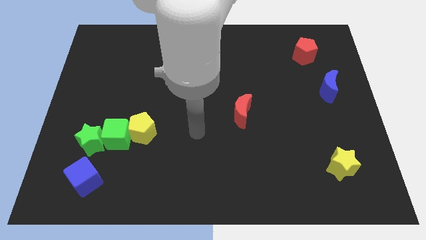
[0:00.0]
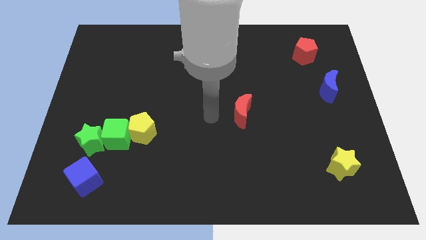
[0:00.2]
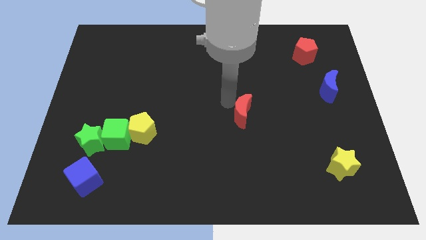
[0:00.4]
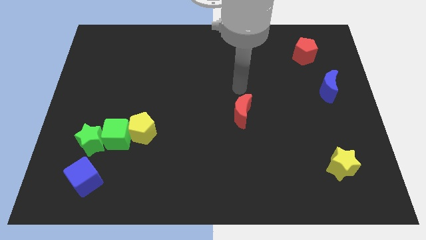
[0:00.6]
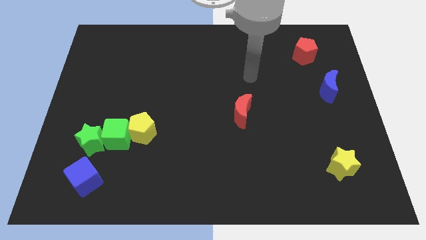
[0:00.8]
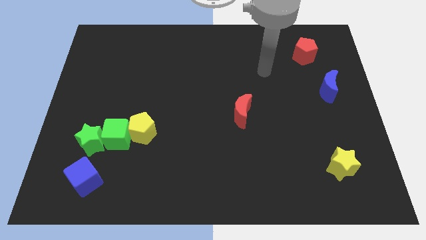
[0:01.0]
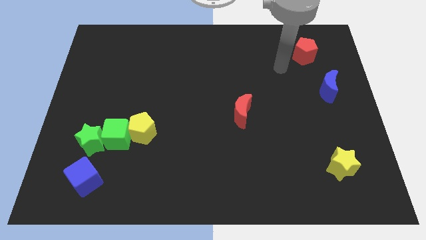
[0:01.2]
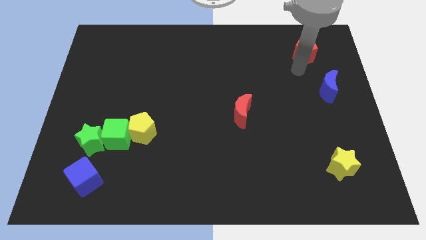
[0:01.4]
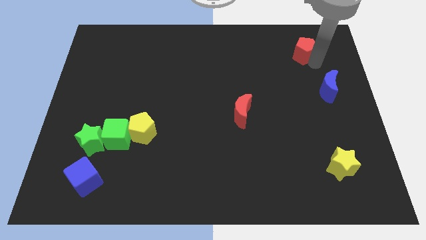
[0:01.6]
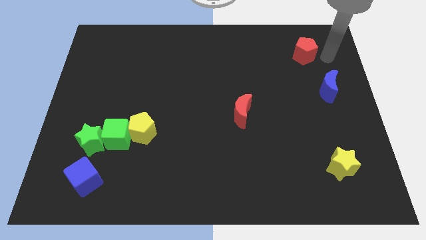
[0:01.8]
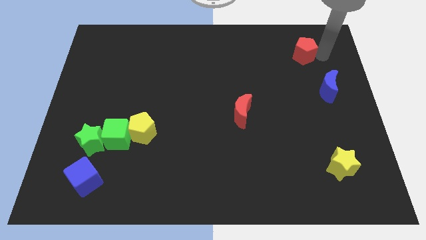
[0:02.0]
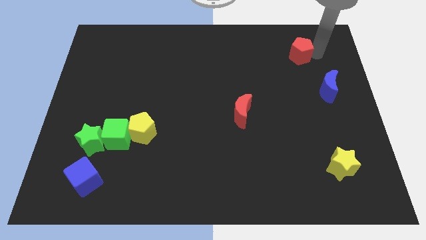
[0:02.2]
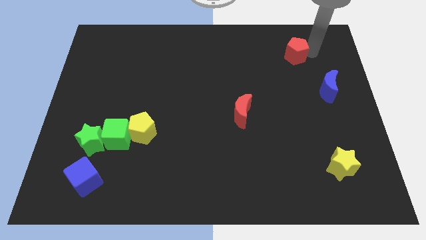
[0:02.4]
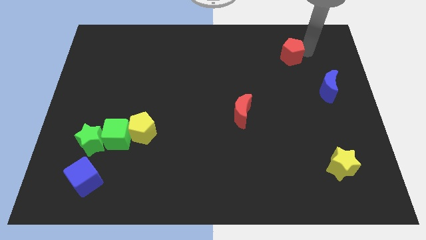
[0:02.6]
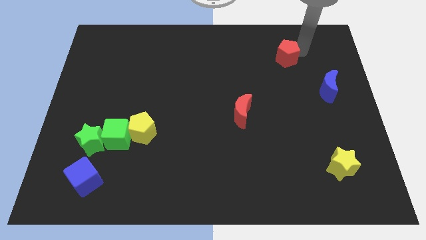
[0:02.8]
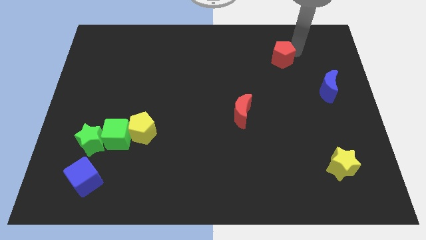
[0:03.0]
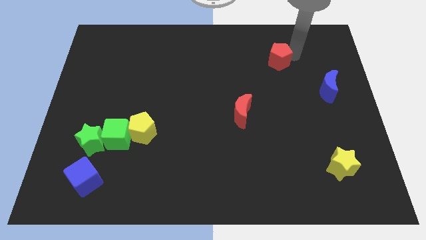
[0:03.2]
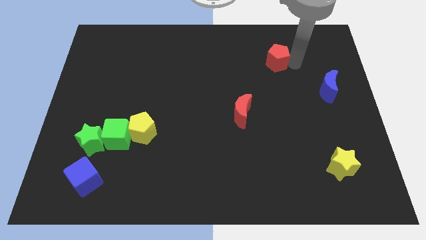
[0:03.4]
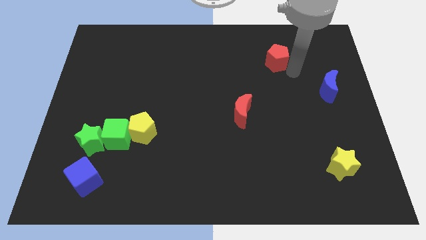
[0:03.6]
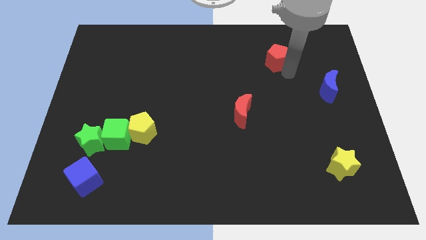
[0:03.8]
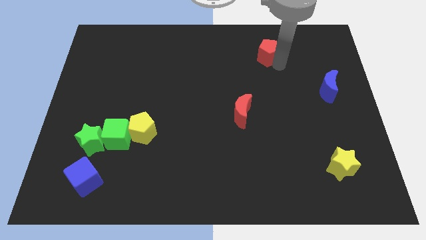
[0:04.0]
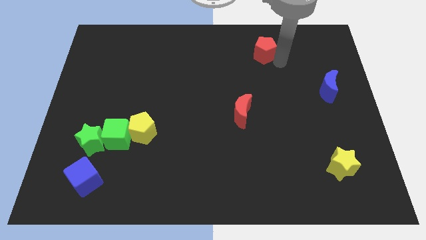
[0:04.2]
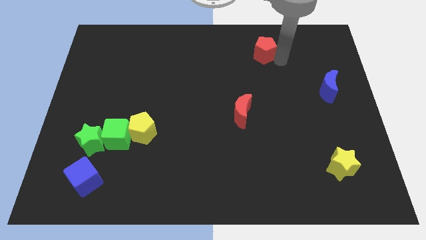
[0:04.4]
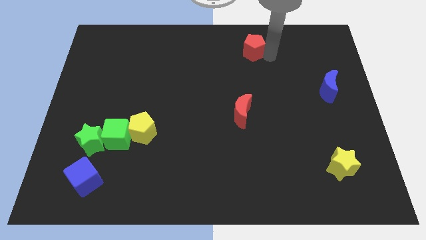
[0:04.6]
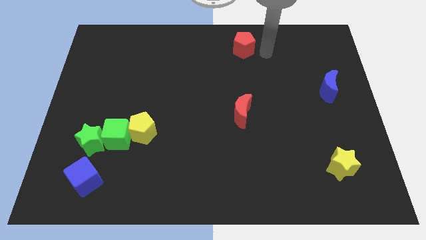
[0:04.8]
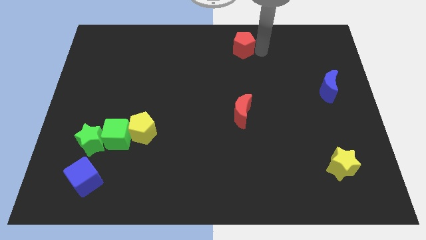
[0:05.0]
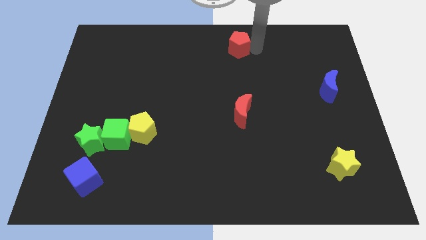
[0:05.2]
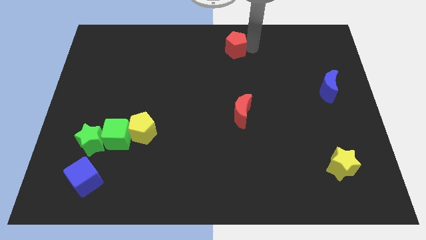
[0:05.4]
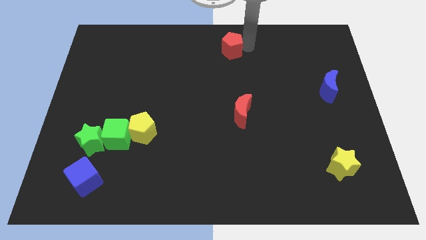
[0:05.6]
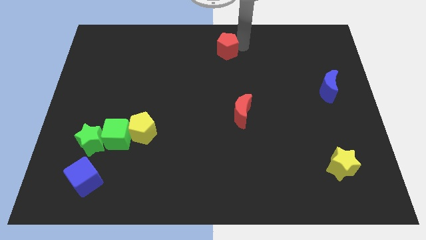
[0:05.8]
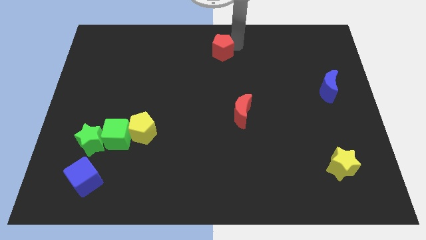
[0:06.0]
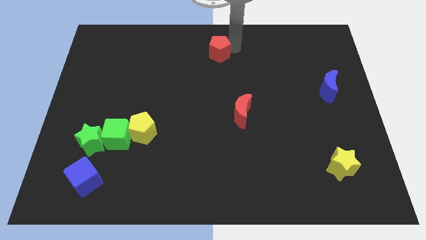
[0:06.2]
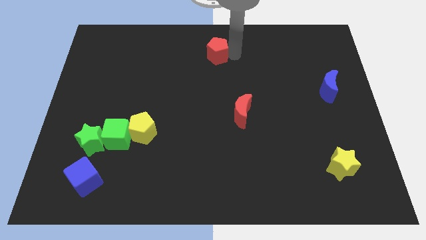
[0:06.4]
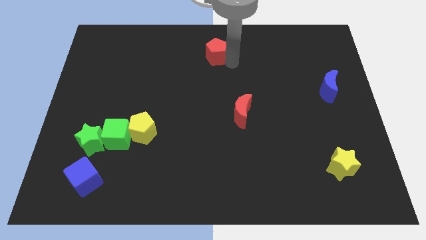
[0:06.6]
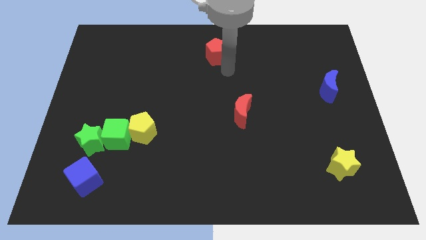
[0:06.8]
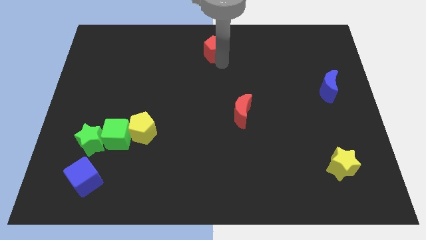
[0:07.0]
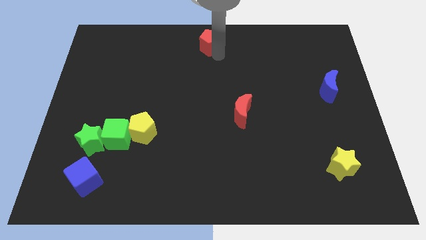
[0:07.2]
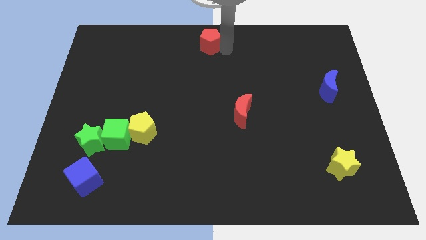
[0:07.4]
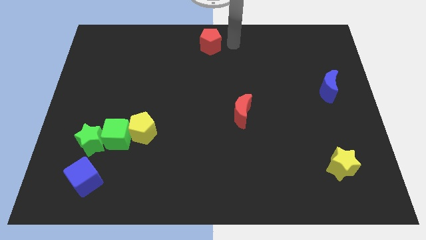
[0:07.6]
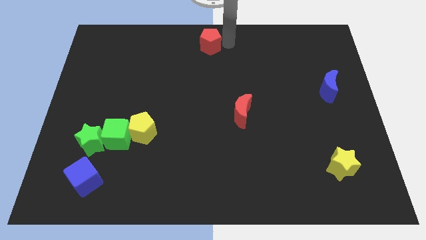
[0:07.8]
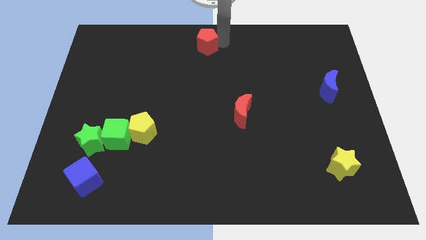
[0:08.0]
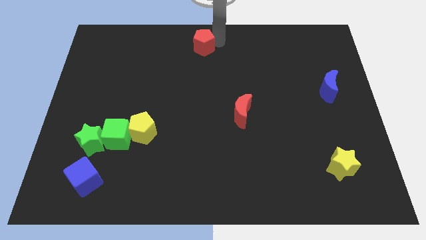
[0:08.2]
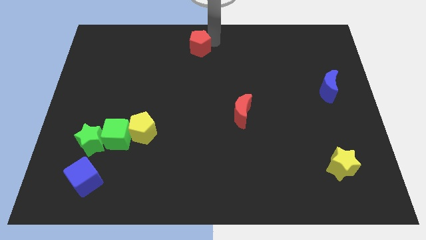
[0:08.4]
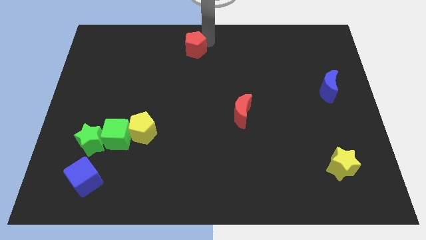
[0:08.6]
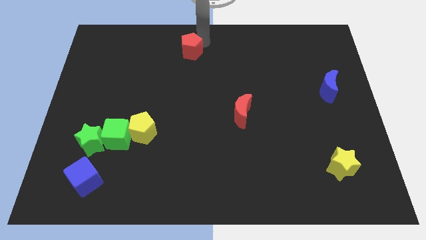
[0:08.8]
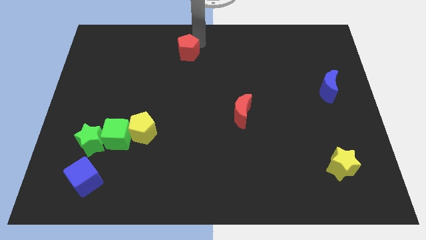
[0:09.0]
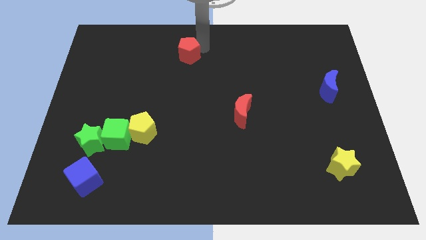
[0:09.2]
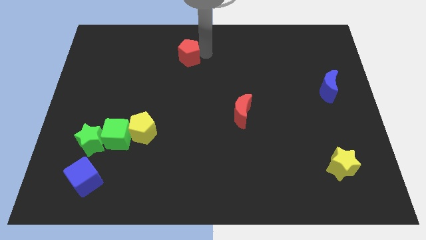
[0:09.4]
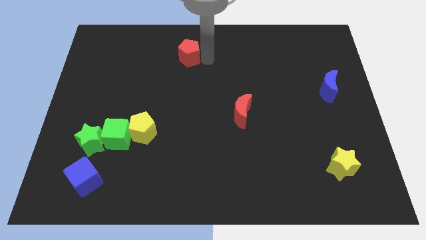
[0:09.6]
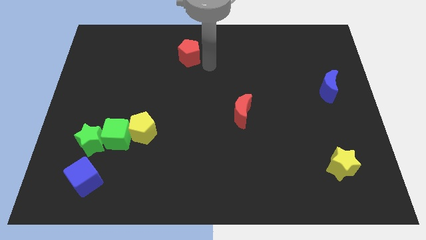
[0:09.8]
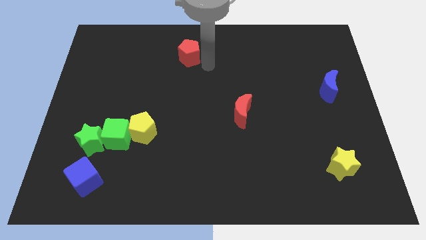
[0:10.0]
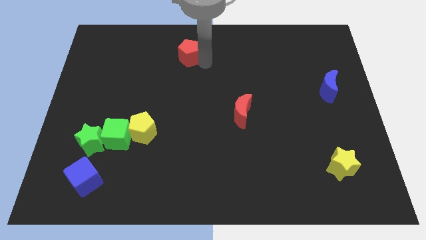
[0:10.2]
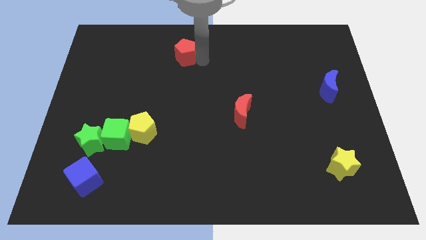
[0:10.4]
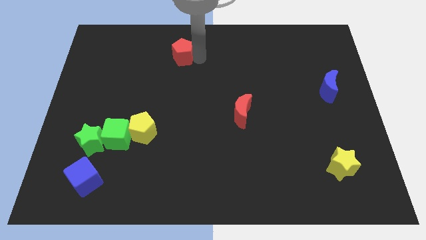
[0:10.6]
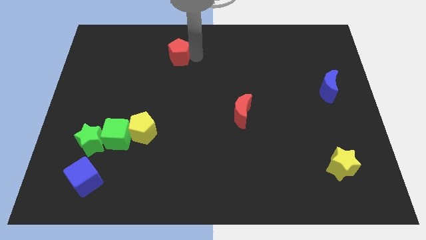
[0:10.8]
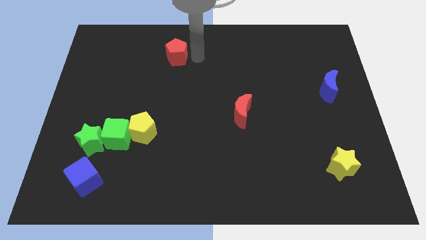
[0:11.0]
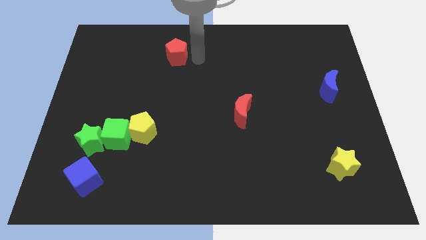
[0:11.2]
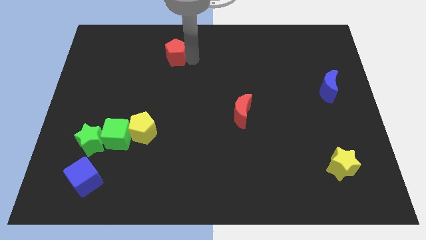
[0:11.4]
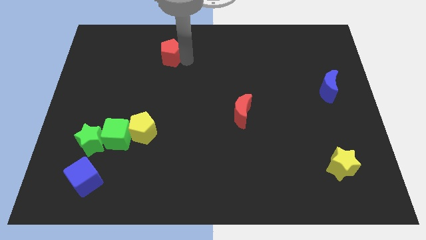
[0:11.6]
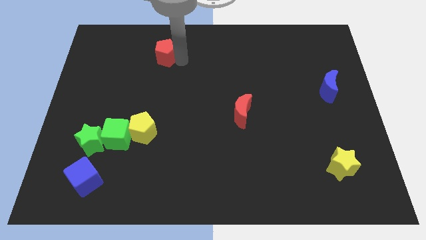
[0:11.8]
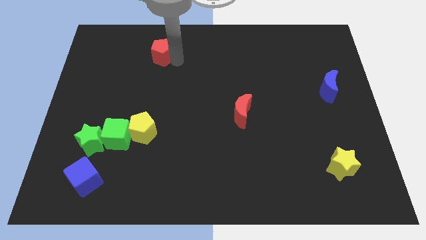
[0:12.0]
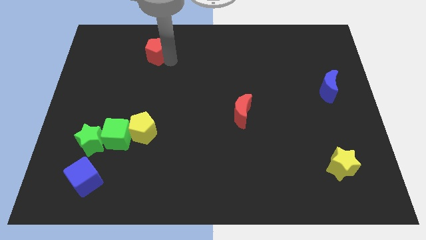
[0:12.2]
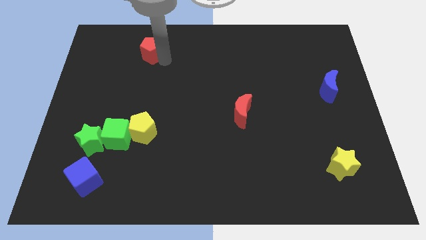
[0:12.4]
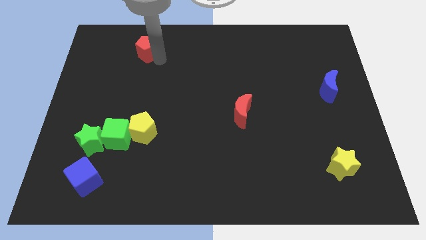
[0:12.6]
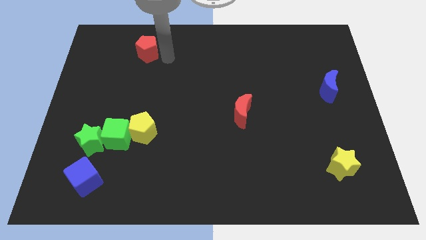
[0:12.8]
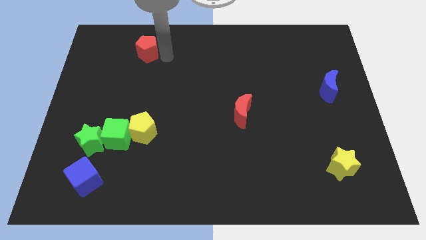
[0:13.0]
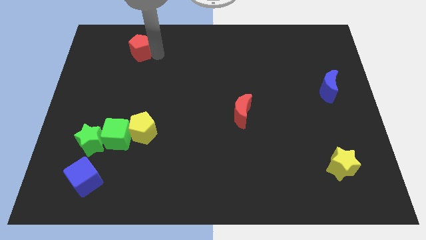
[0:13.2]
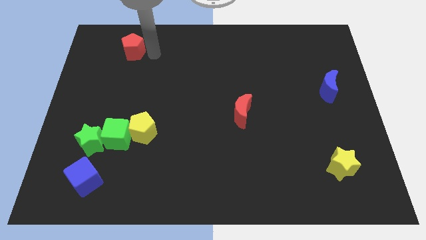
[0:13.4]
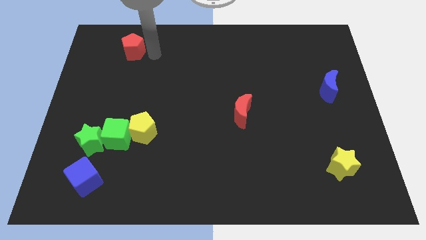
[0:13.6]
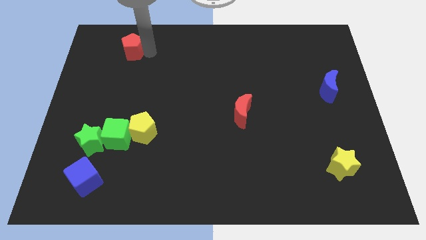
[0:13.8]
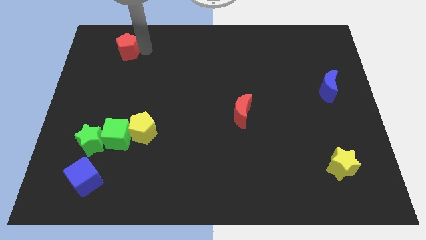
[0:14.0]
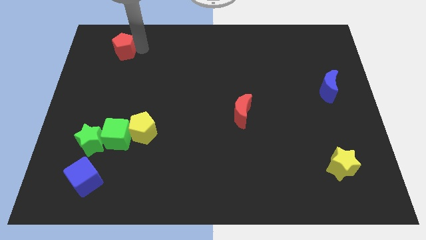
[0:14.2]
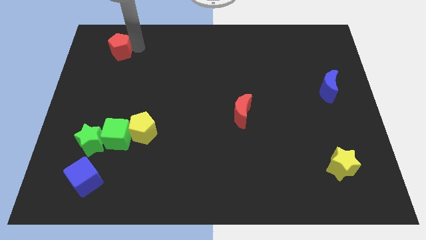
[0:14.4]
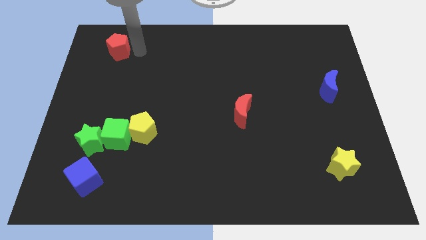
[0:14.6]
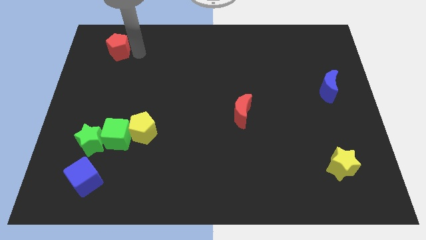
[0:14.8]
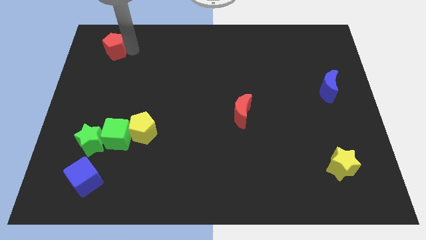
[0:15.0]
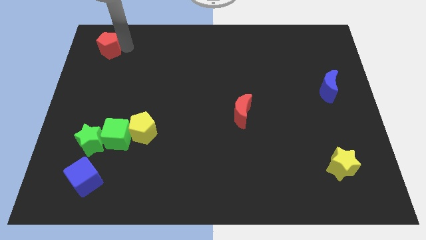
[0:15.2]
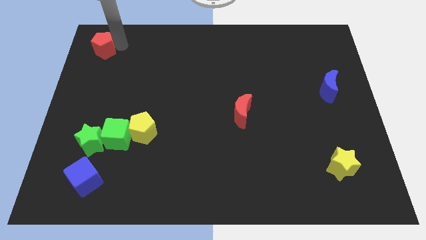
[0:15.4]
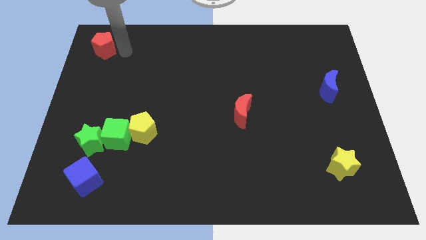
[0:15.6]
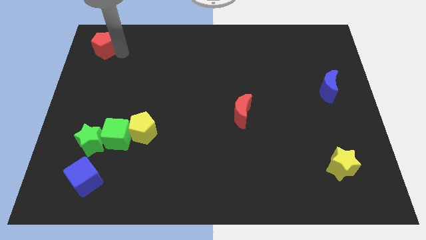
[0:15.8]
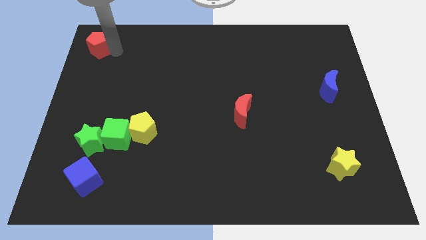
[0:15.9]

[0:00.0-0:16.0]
put the red pentagon to the top left of the board
